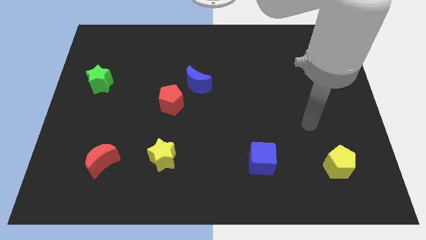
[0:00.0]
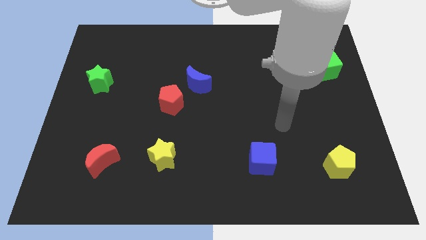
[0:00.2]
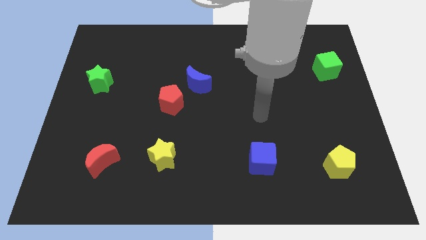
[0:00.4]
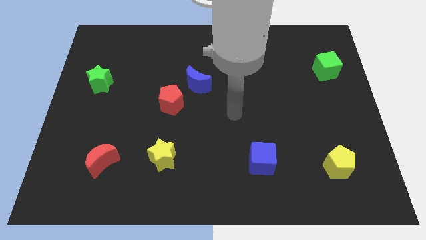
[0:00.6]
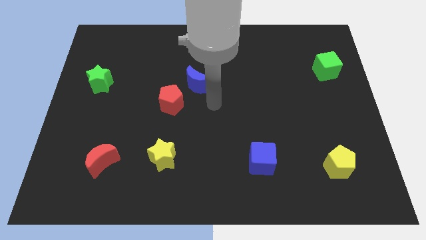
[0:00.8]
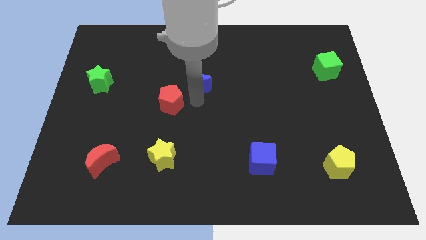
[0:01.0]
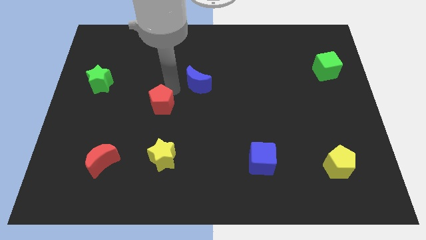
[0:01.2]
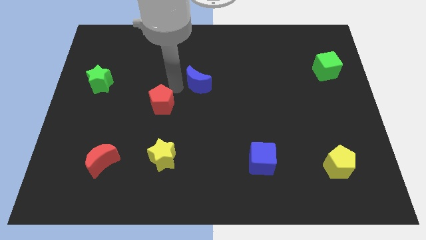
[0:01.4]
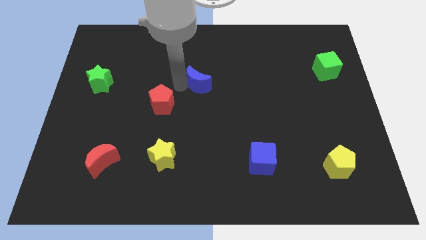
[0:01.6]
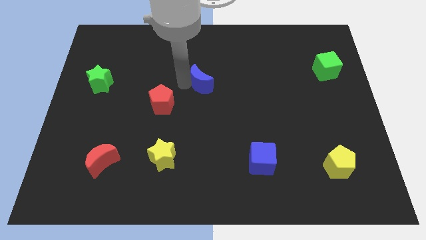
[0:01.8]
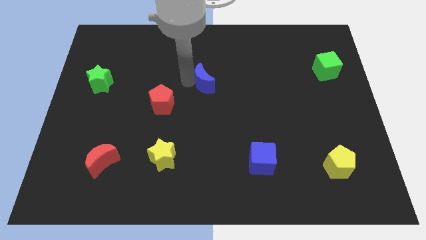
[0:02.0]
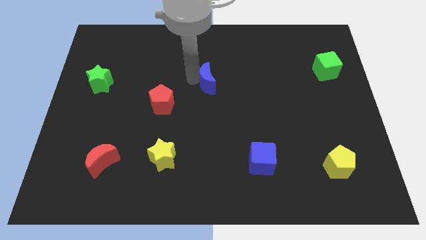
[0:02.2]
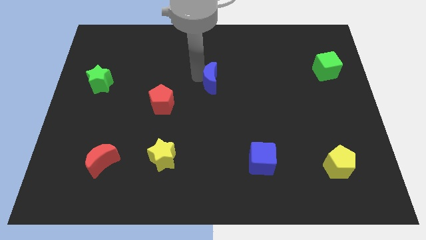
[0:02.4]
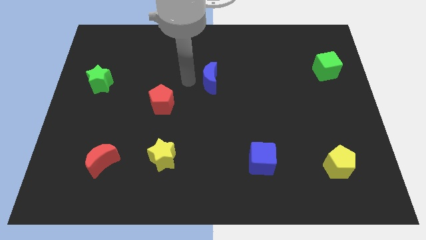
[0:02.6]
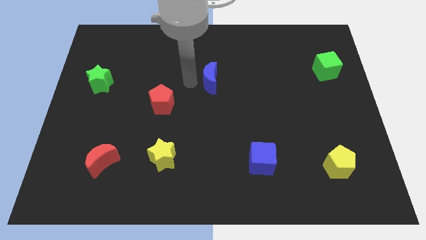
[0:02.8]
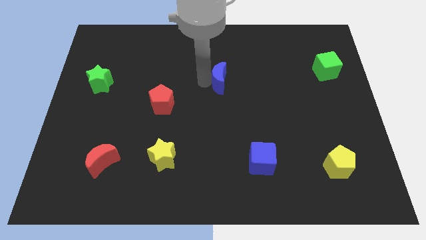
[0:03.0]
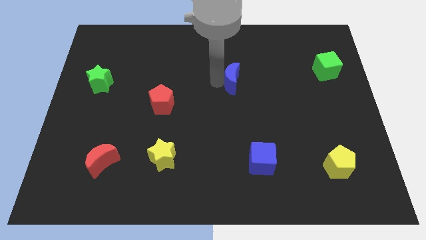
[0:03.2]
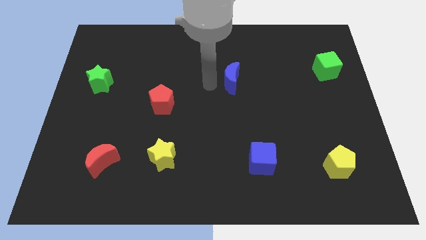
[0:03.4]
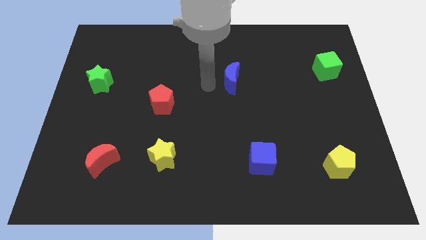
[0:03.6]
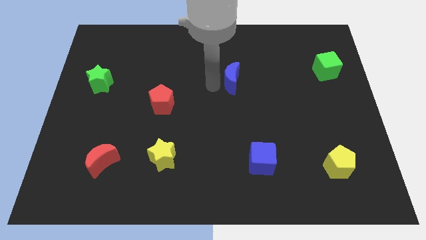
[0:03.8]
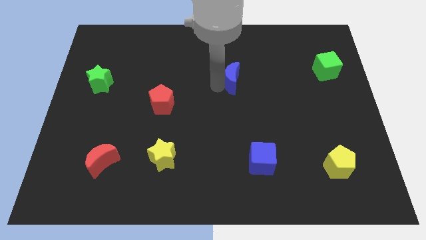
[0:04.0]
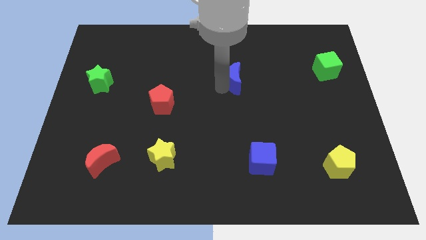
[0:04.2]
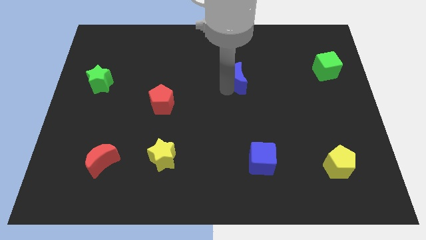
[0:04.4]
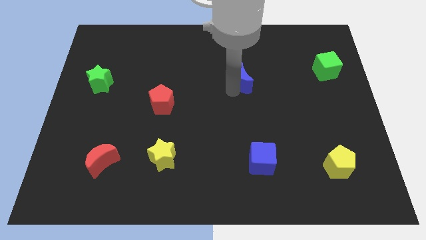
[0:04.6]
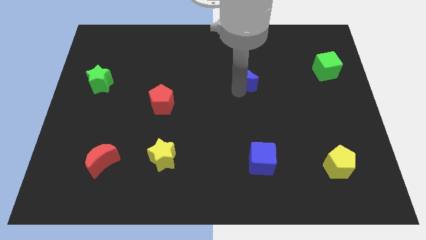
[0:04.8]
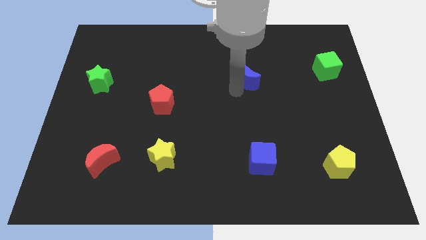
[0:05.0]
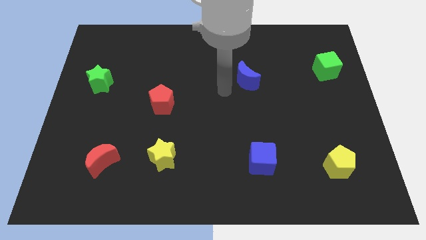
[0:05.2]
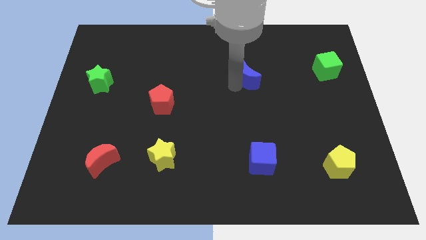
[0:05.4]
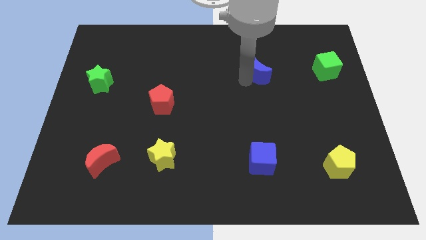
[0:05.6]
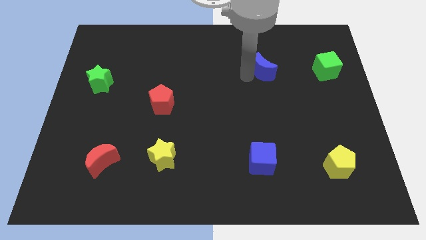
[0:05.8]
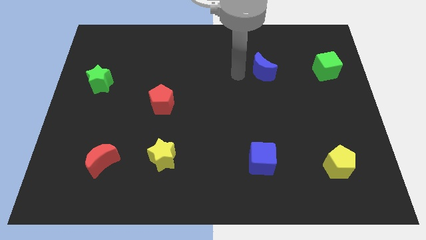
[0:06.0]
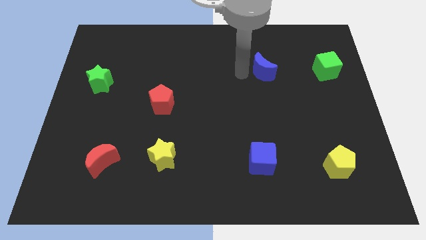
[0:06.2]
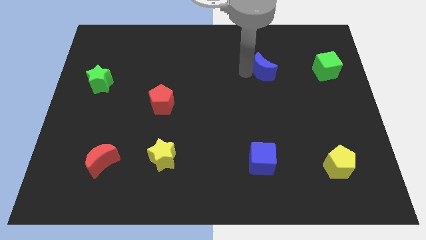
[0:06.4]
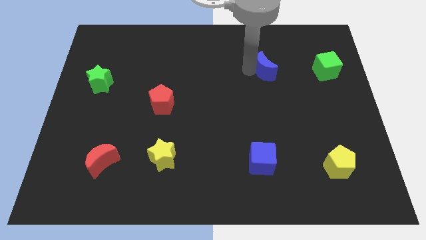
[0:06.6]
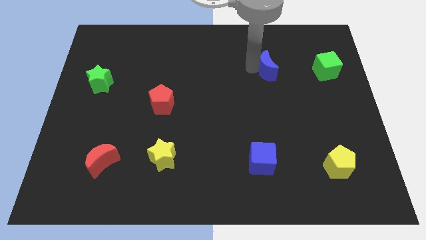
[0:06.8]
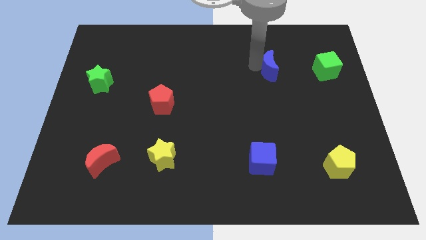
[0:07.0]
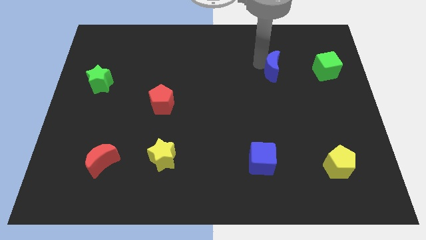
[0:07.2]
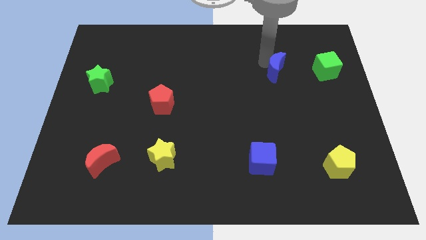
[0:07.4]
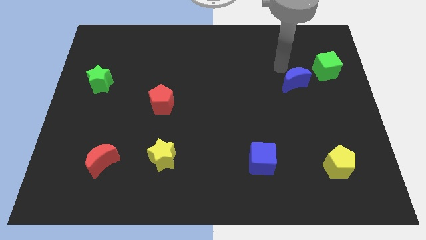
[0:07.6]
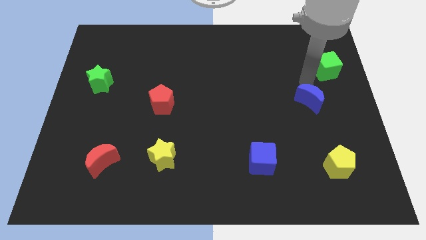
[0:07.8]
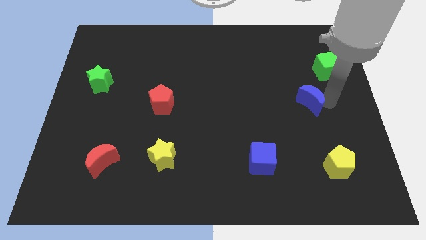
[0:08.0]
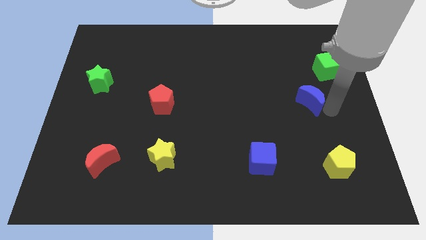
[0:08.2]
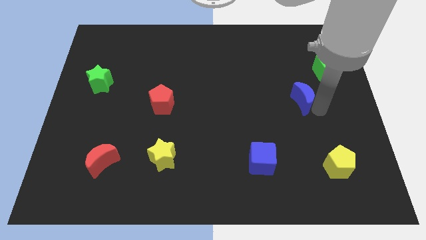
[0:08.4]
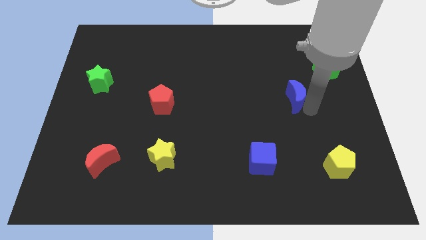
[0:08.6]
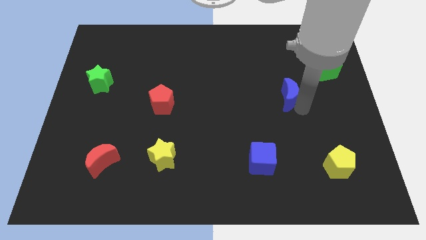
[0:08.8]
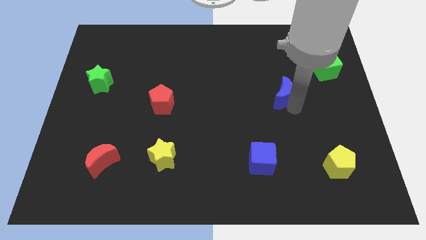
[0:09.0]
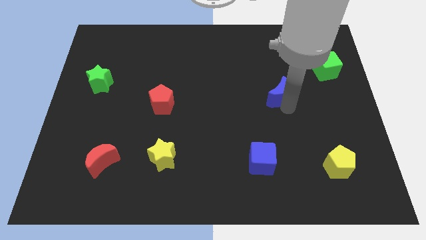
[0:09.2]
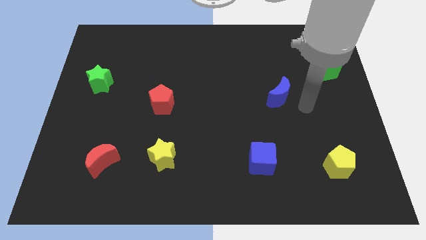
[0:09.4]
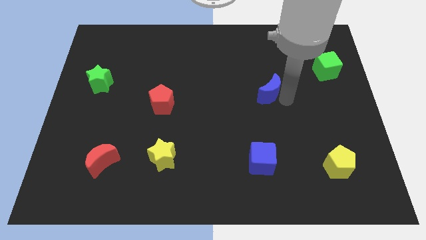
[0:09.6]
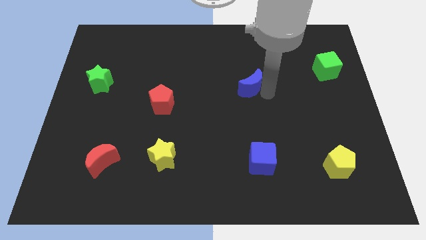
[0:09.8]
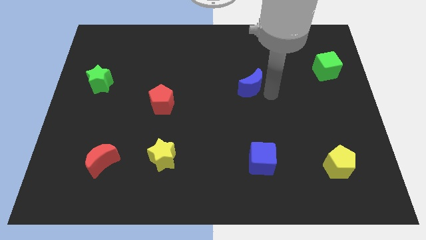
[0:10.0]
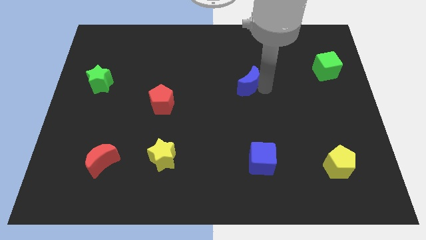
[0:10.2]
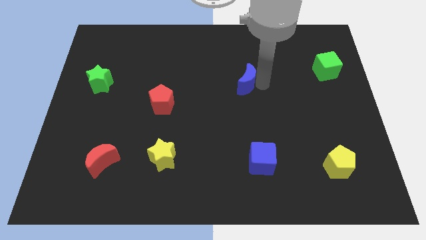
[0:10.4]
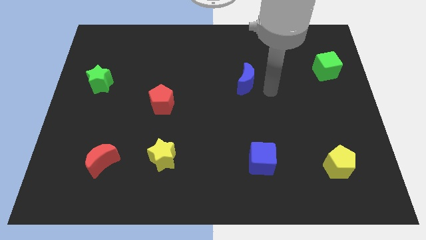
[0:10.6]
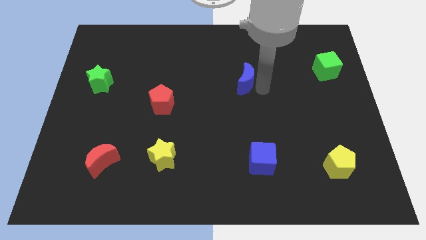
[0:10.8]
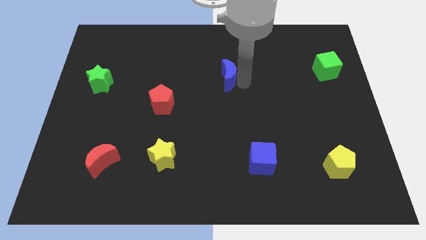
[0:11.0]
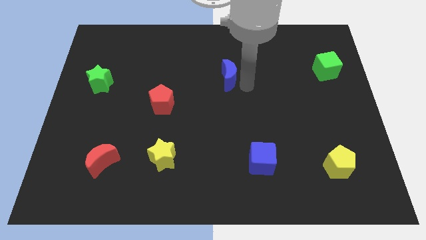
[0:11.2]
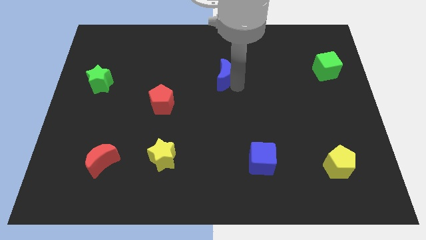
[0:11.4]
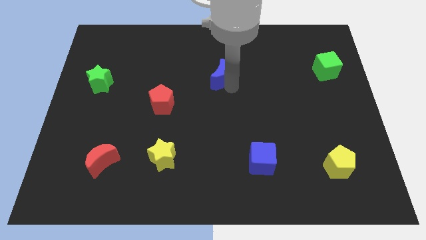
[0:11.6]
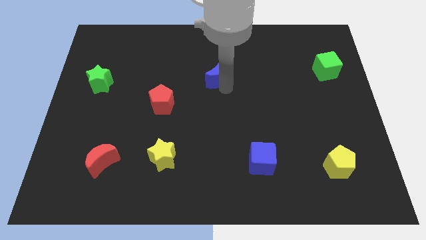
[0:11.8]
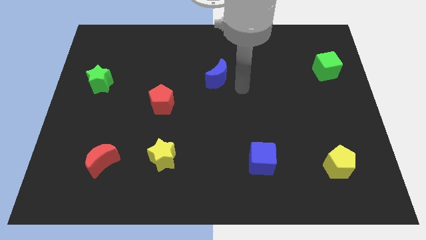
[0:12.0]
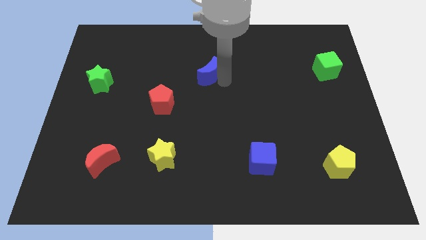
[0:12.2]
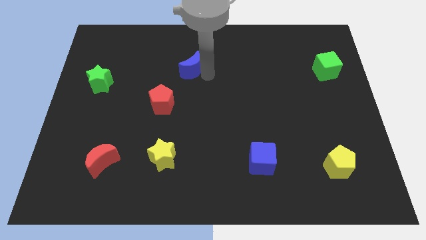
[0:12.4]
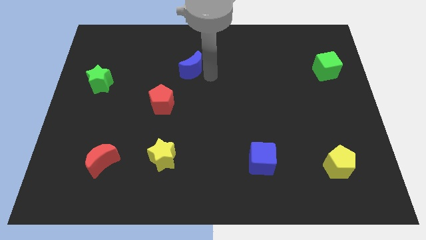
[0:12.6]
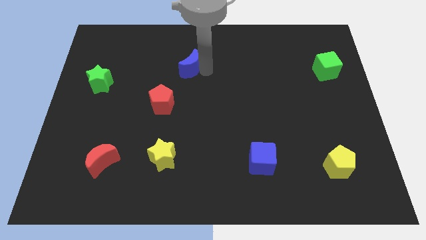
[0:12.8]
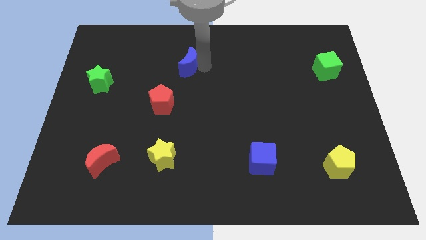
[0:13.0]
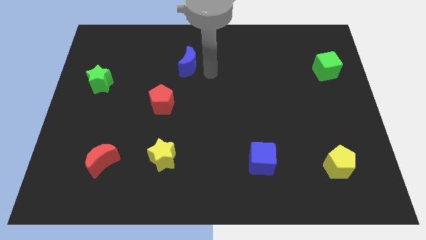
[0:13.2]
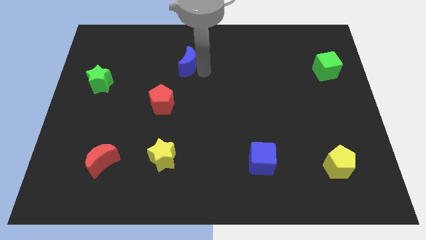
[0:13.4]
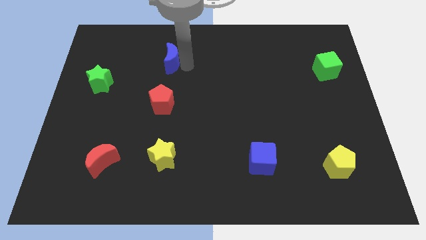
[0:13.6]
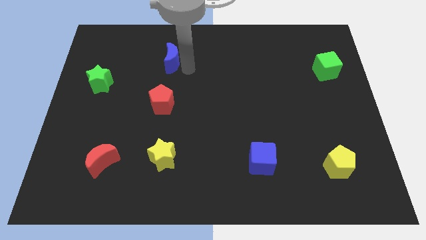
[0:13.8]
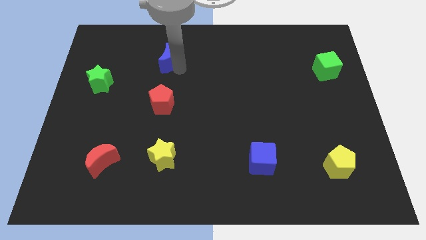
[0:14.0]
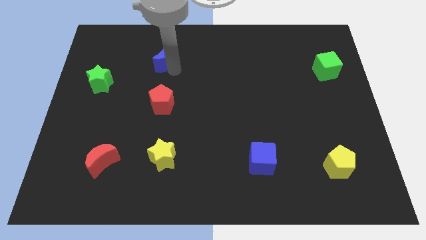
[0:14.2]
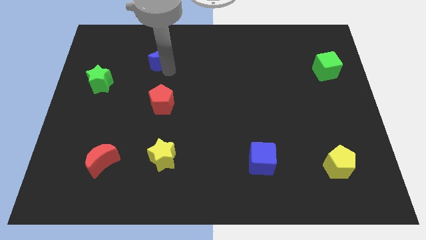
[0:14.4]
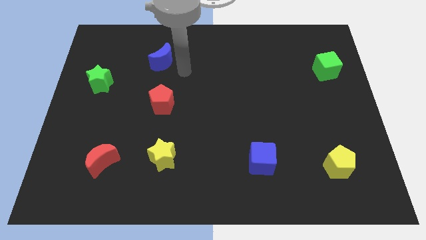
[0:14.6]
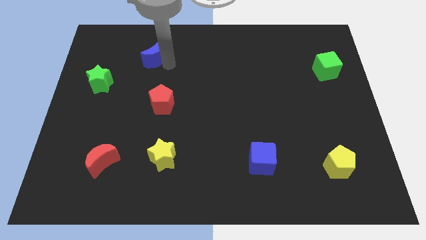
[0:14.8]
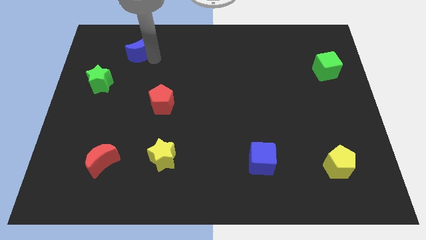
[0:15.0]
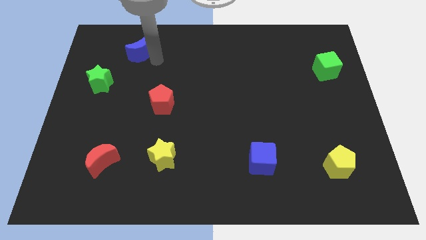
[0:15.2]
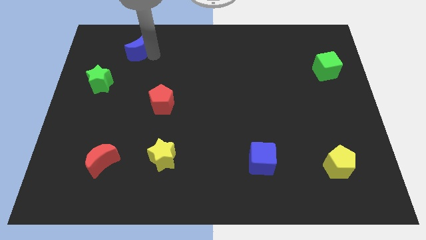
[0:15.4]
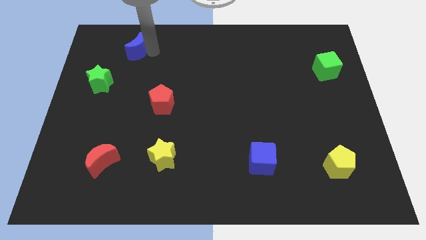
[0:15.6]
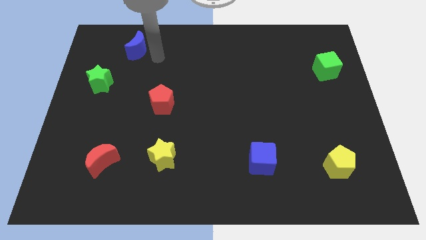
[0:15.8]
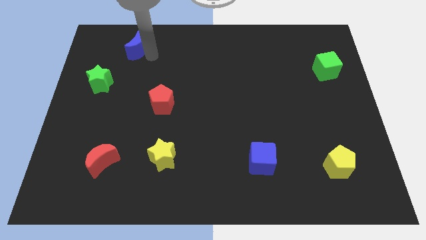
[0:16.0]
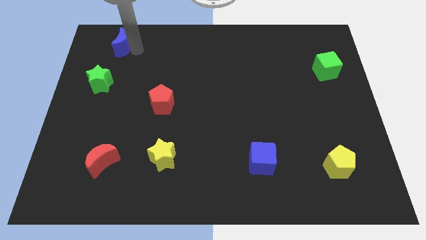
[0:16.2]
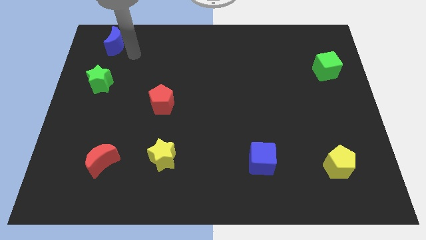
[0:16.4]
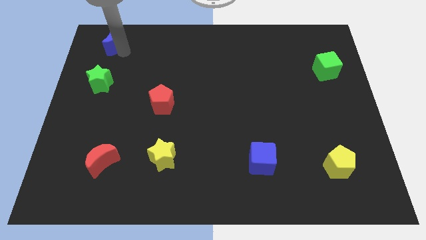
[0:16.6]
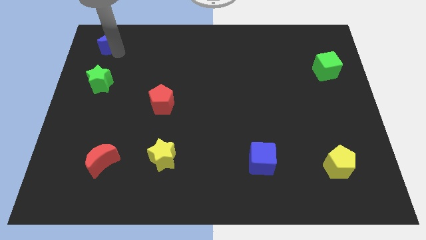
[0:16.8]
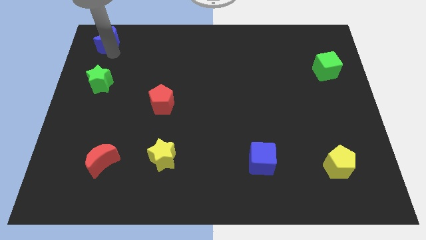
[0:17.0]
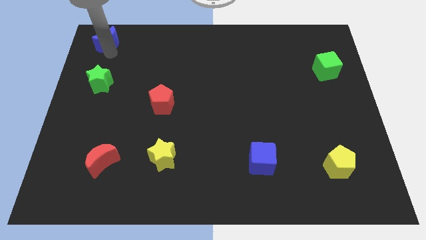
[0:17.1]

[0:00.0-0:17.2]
move the blue moon to the top left of the board
